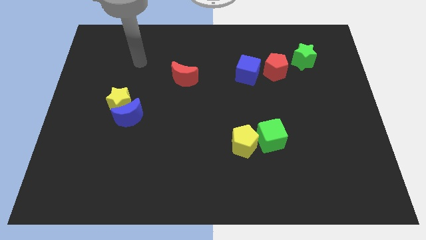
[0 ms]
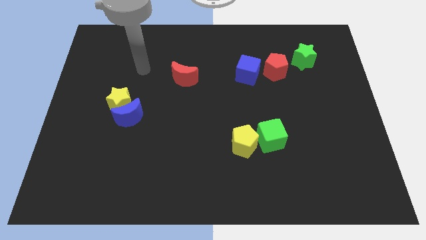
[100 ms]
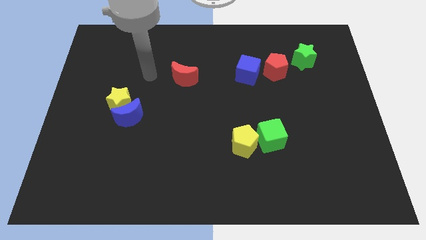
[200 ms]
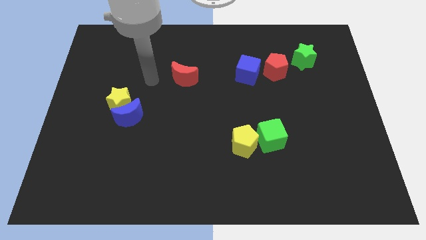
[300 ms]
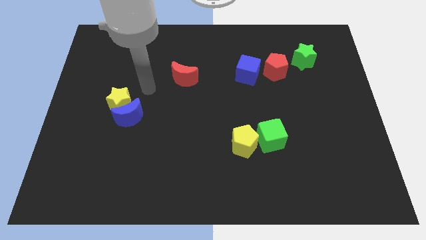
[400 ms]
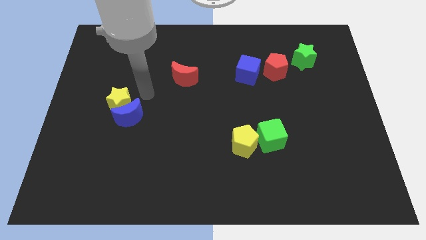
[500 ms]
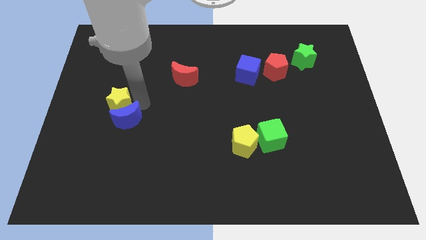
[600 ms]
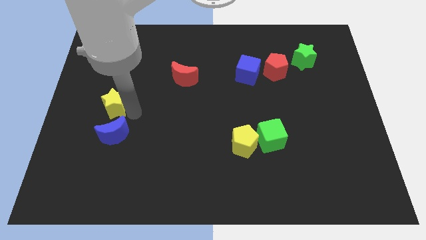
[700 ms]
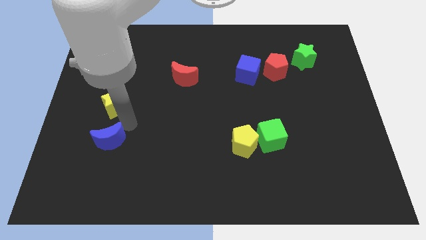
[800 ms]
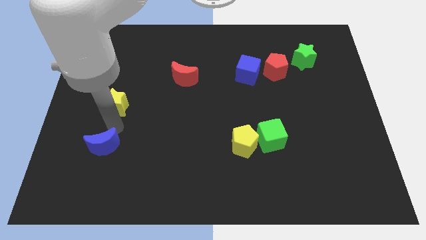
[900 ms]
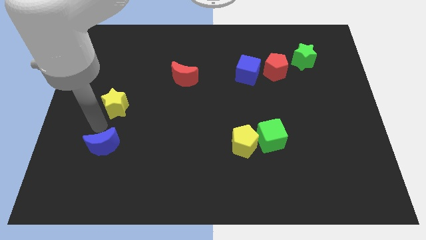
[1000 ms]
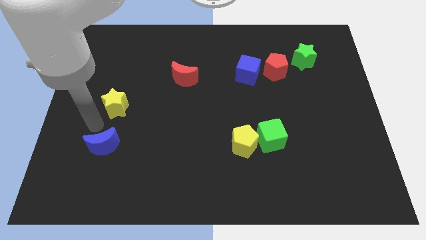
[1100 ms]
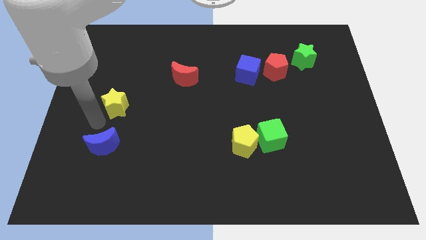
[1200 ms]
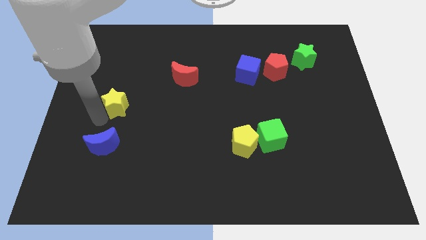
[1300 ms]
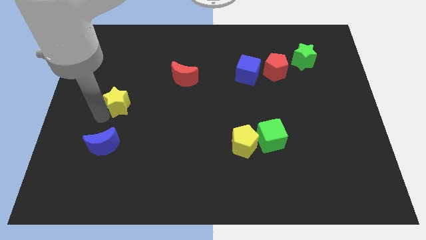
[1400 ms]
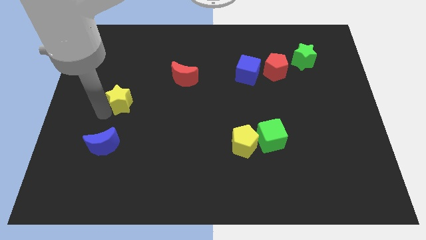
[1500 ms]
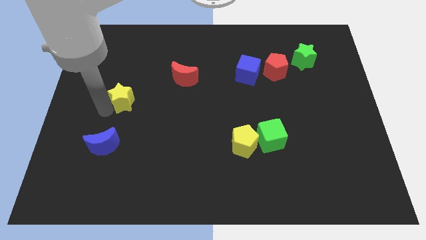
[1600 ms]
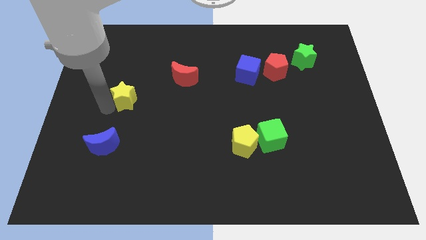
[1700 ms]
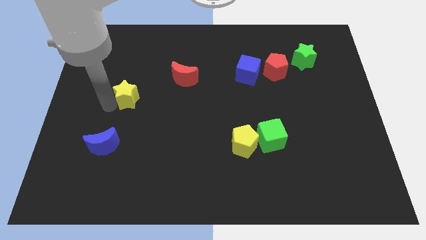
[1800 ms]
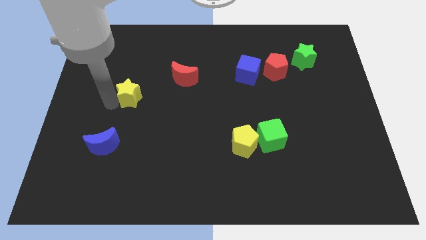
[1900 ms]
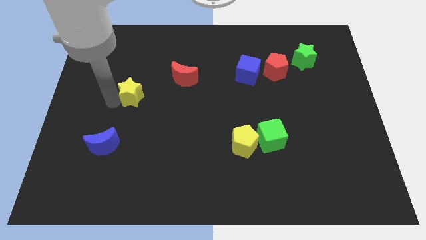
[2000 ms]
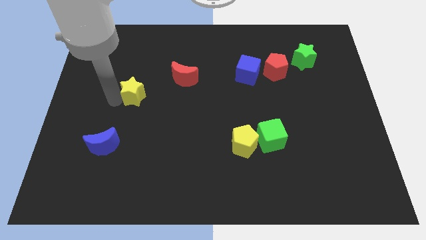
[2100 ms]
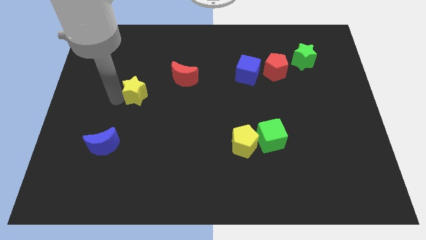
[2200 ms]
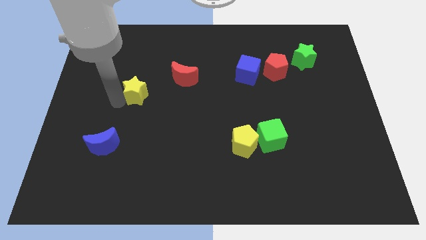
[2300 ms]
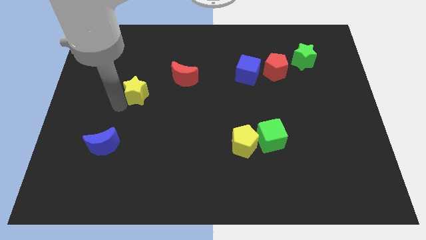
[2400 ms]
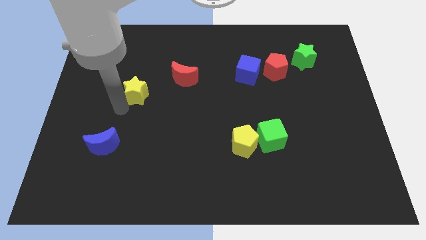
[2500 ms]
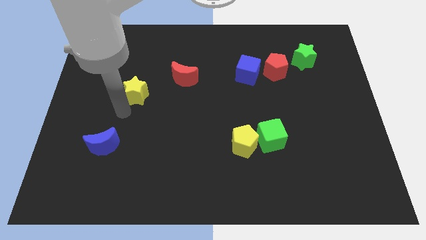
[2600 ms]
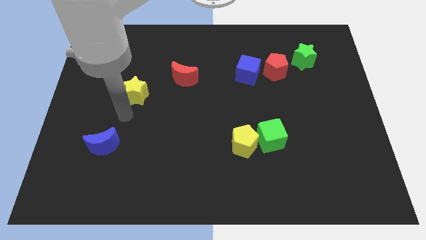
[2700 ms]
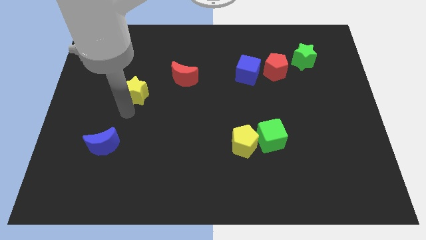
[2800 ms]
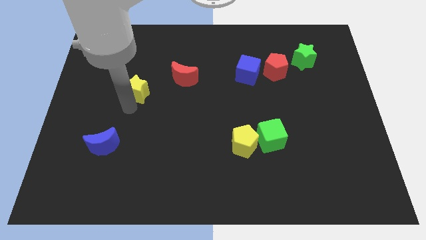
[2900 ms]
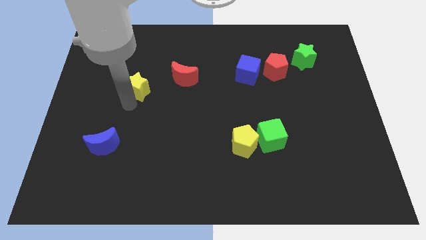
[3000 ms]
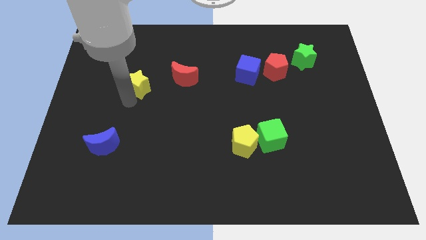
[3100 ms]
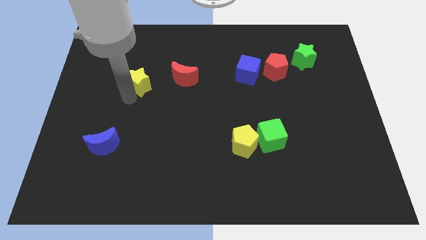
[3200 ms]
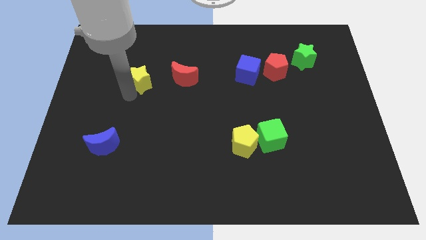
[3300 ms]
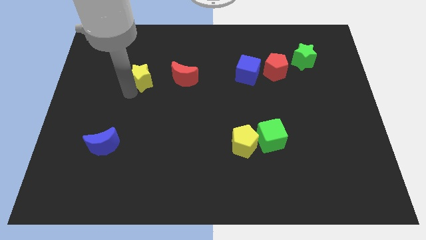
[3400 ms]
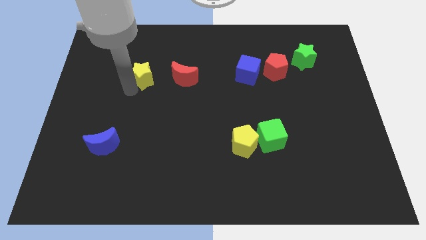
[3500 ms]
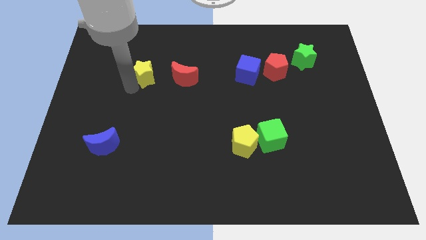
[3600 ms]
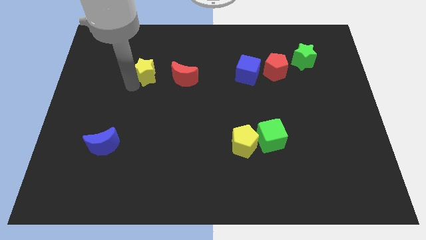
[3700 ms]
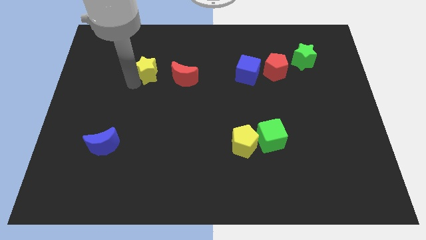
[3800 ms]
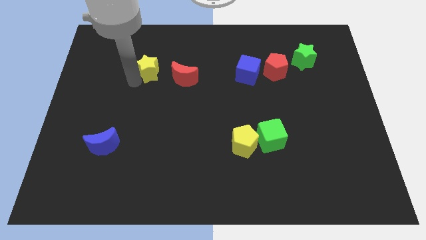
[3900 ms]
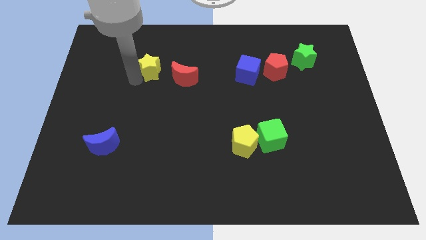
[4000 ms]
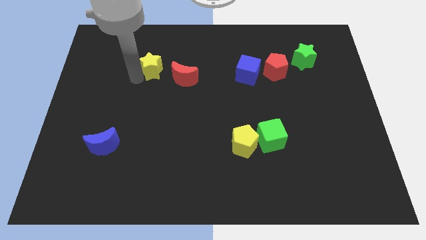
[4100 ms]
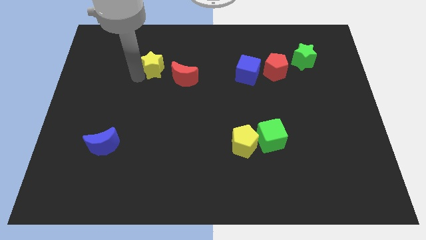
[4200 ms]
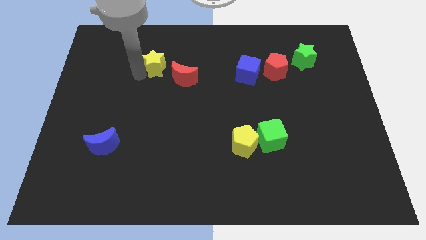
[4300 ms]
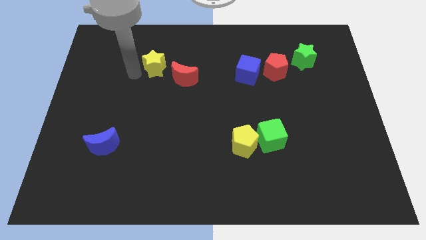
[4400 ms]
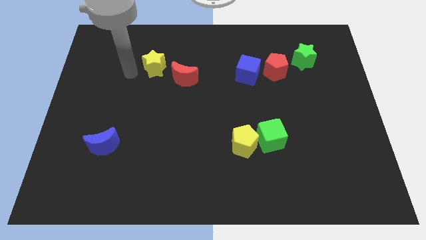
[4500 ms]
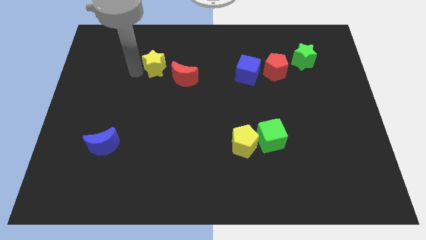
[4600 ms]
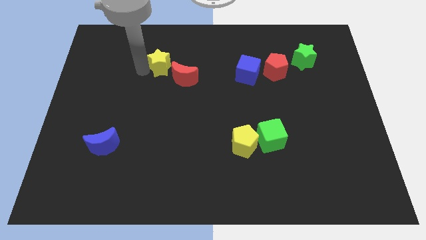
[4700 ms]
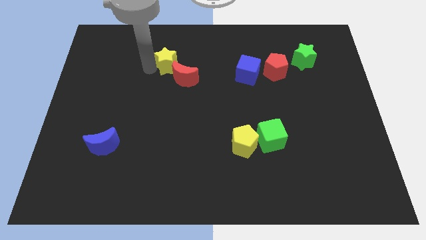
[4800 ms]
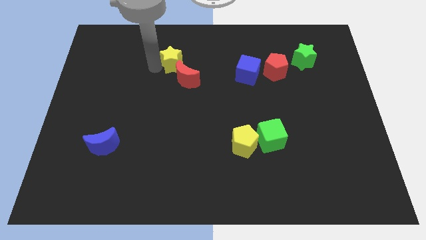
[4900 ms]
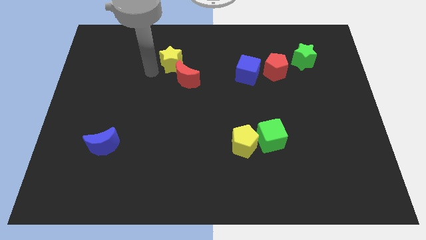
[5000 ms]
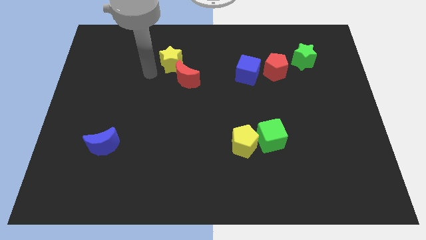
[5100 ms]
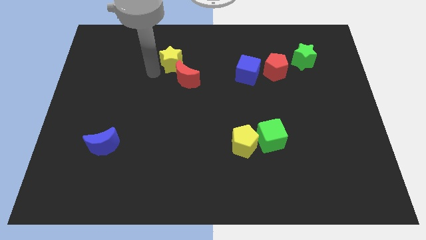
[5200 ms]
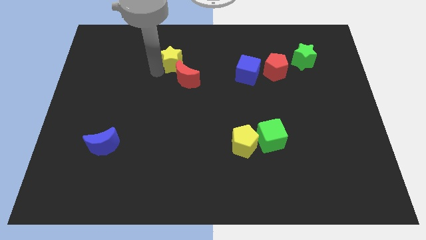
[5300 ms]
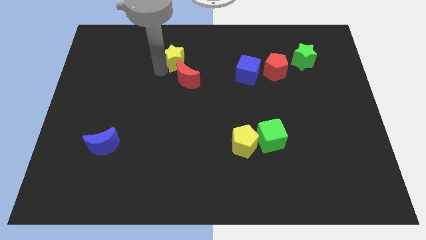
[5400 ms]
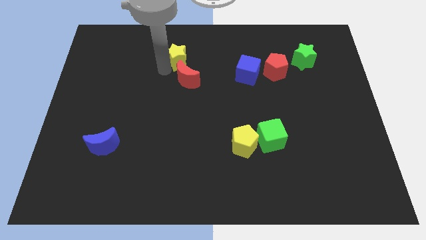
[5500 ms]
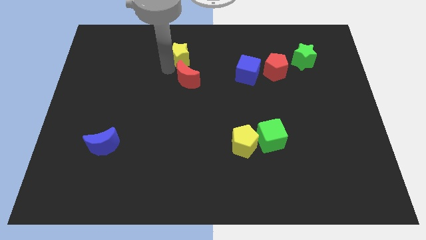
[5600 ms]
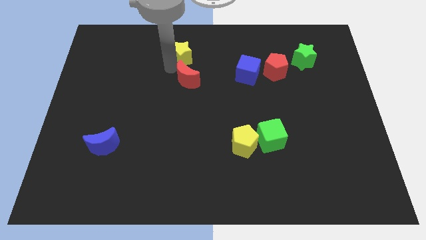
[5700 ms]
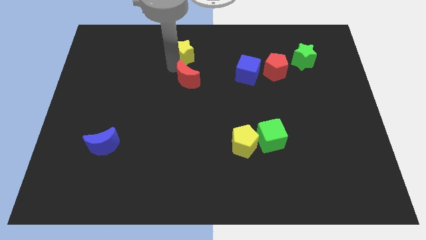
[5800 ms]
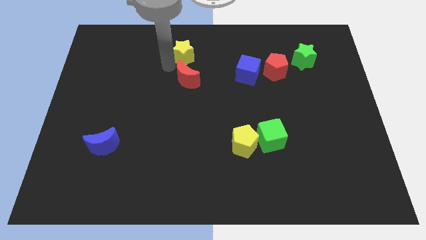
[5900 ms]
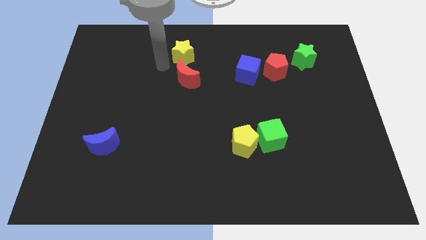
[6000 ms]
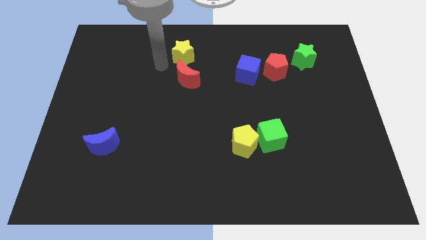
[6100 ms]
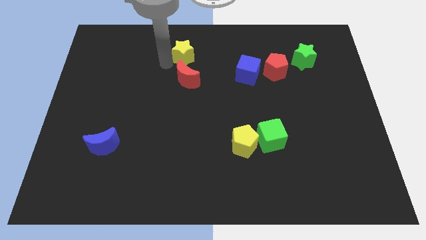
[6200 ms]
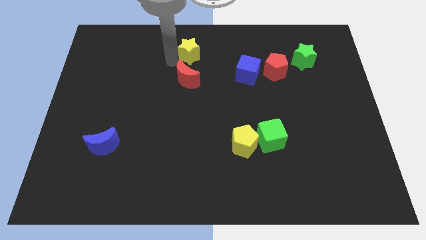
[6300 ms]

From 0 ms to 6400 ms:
move the yellow star to the towards your base

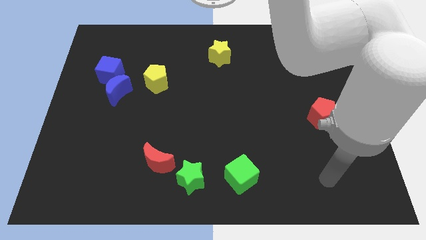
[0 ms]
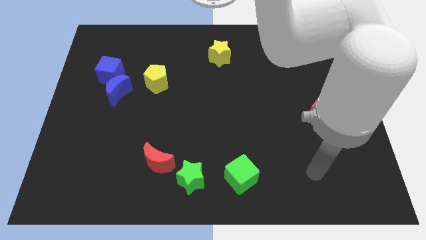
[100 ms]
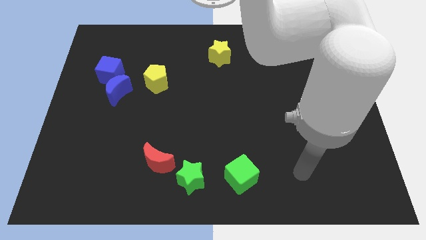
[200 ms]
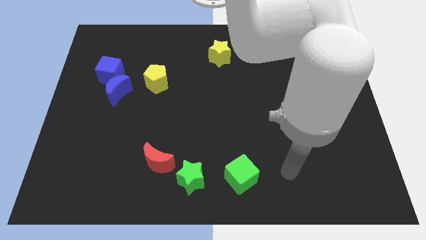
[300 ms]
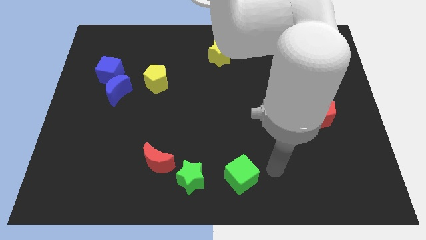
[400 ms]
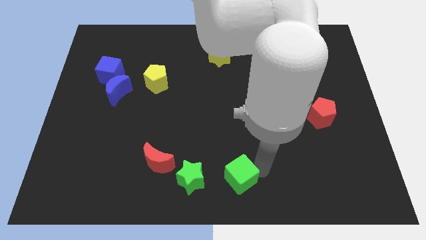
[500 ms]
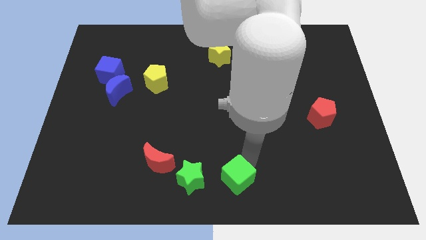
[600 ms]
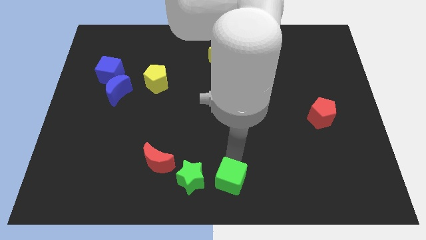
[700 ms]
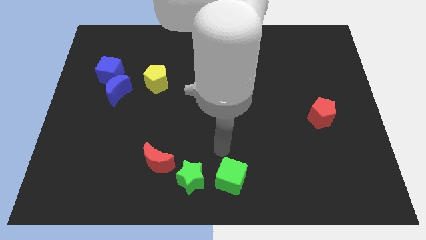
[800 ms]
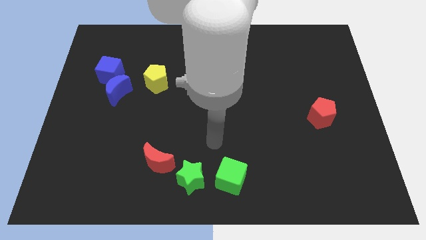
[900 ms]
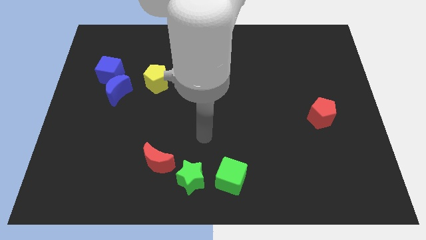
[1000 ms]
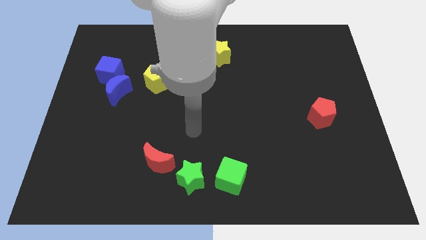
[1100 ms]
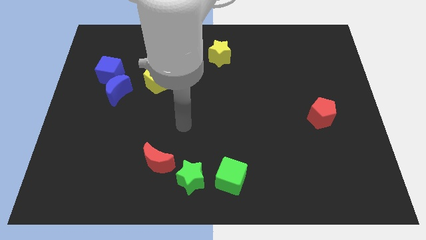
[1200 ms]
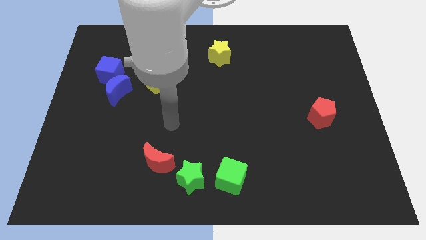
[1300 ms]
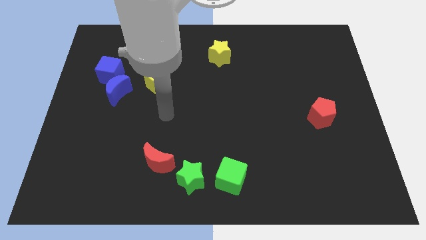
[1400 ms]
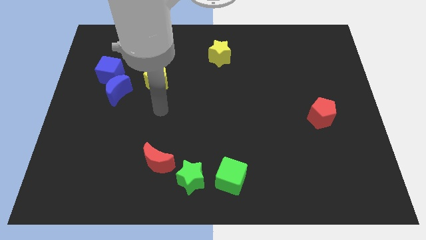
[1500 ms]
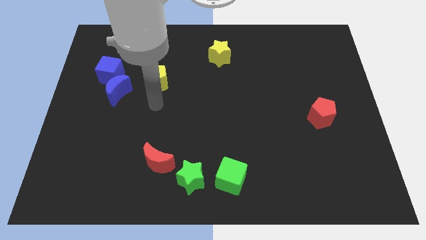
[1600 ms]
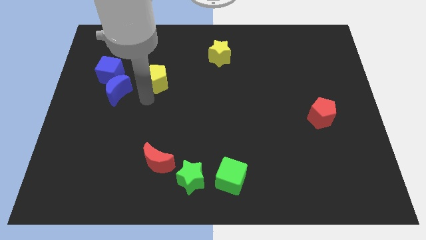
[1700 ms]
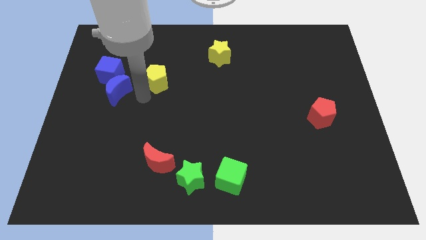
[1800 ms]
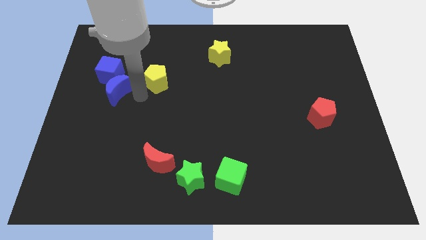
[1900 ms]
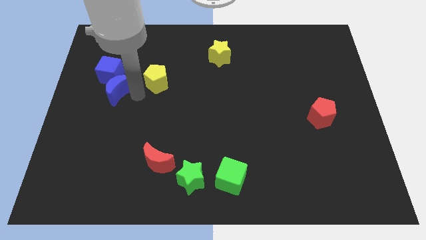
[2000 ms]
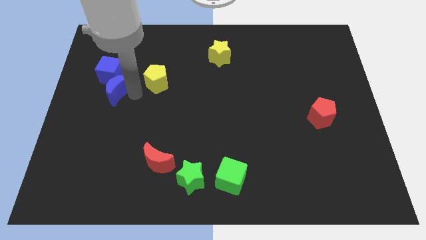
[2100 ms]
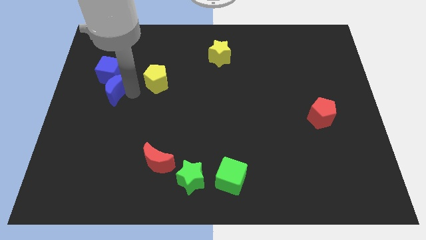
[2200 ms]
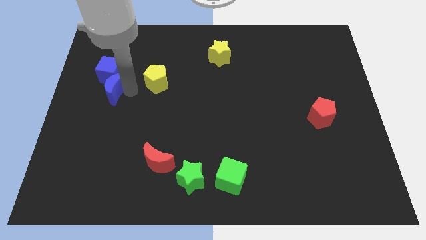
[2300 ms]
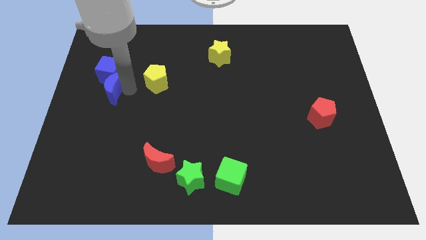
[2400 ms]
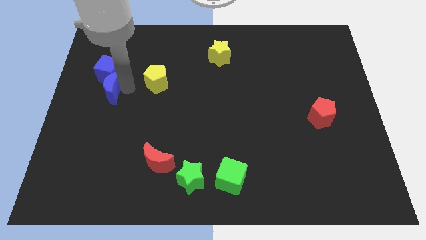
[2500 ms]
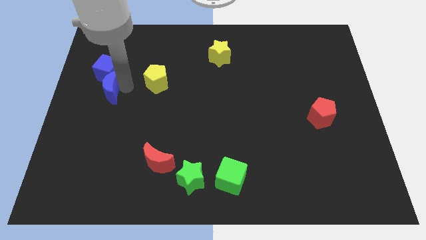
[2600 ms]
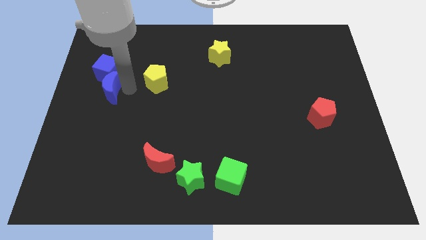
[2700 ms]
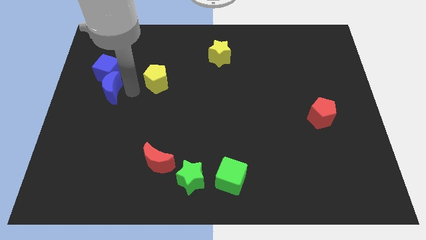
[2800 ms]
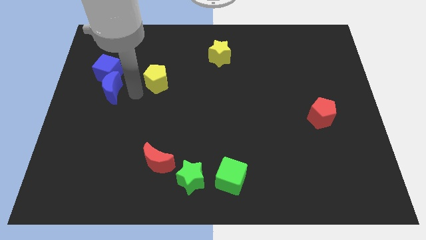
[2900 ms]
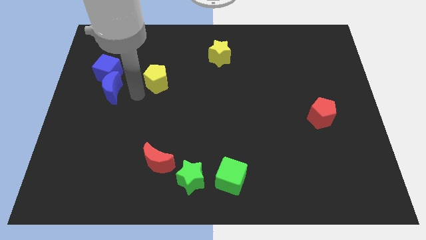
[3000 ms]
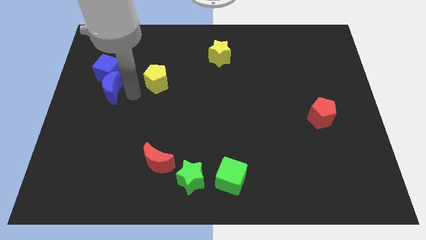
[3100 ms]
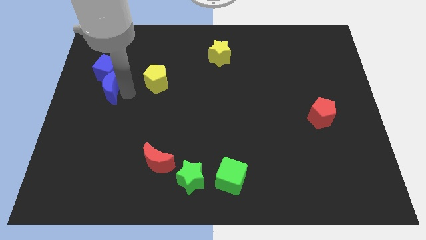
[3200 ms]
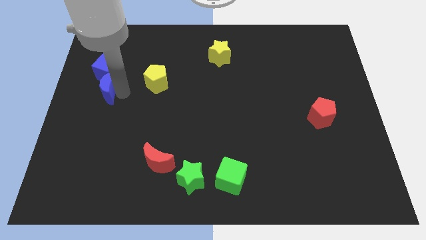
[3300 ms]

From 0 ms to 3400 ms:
push the blue moon to the left side
